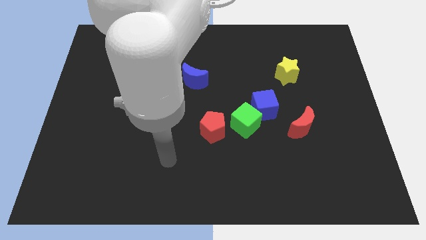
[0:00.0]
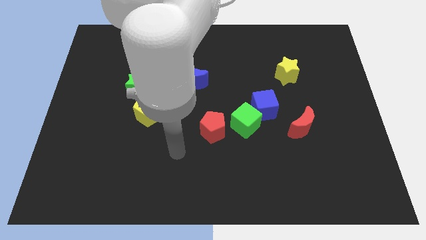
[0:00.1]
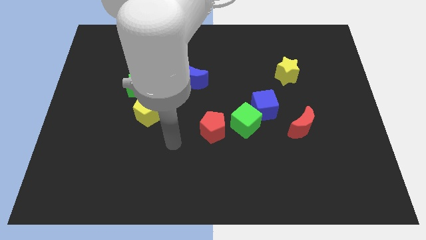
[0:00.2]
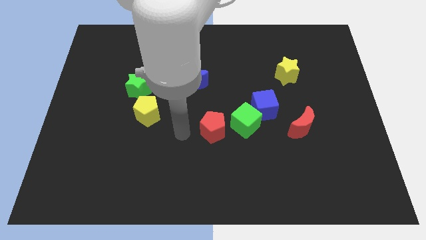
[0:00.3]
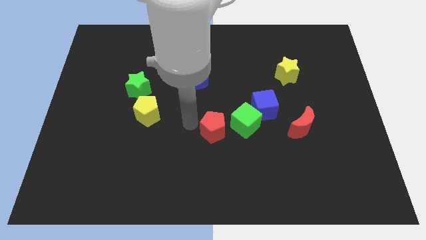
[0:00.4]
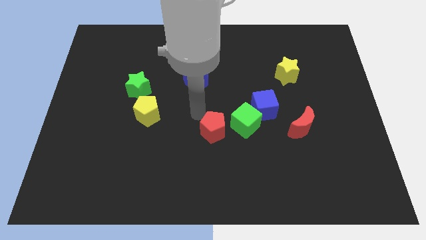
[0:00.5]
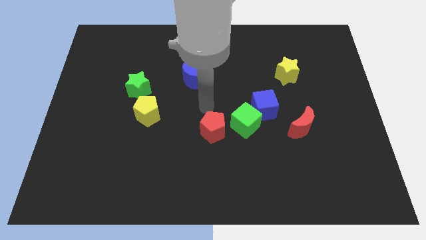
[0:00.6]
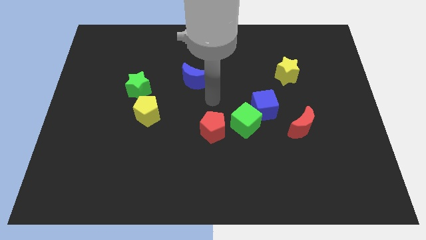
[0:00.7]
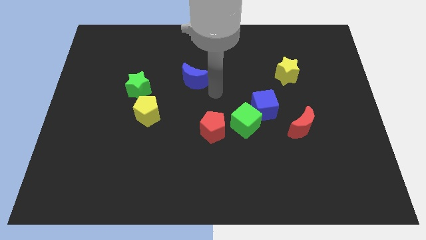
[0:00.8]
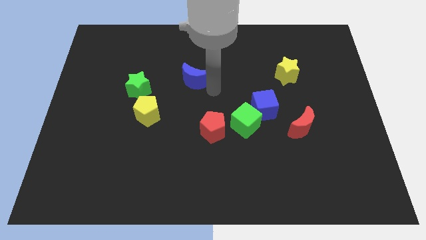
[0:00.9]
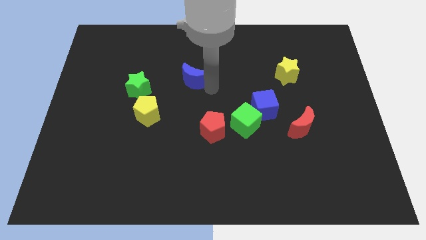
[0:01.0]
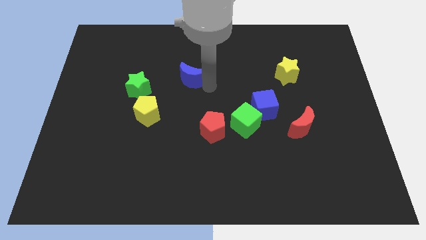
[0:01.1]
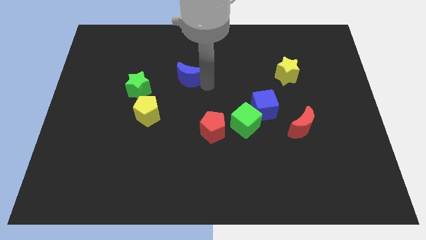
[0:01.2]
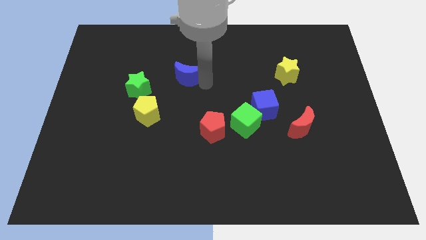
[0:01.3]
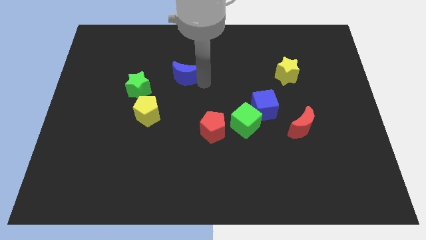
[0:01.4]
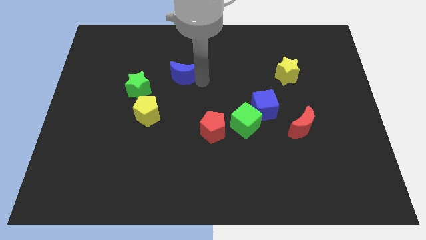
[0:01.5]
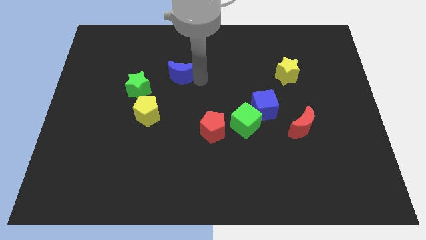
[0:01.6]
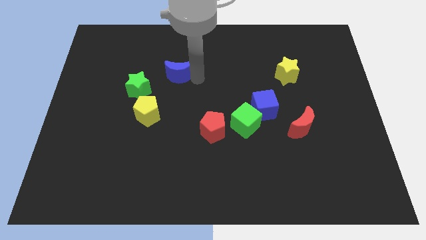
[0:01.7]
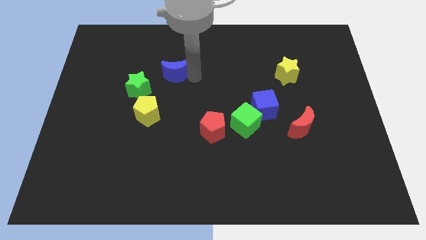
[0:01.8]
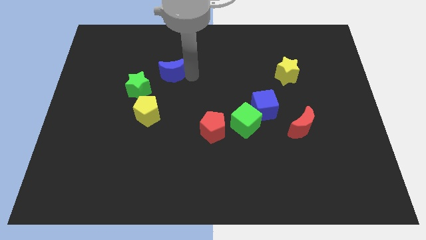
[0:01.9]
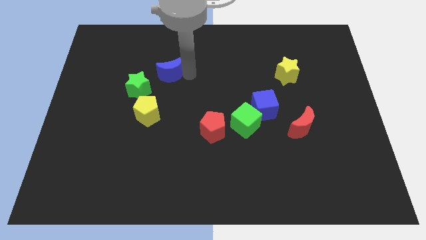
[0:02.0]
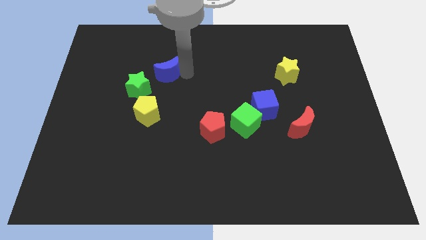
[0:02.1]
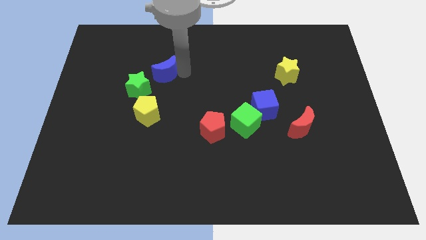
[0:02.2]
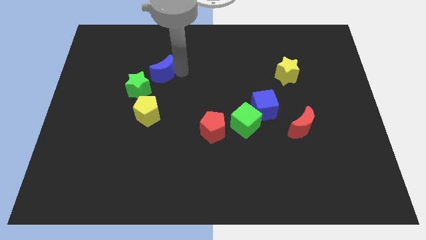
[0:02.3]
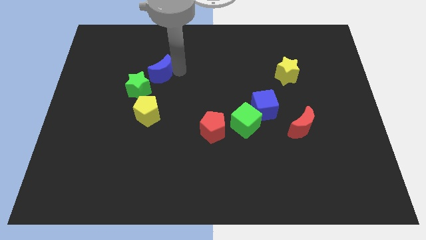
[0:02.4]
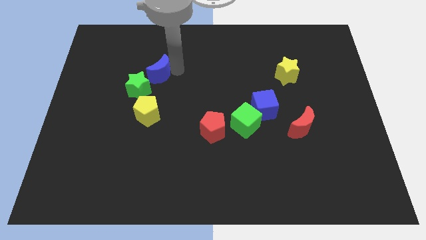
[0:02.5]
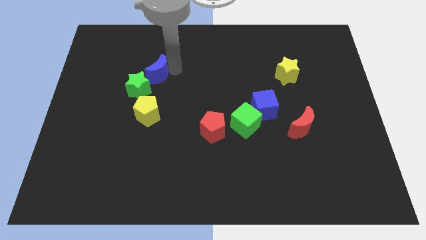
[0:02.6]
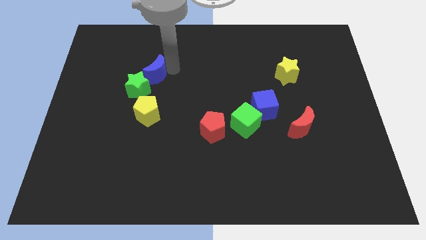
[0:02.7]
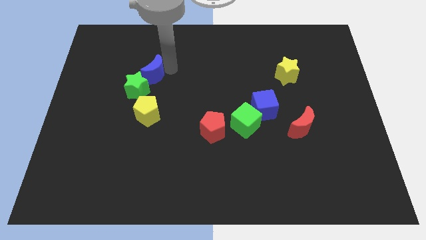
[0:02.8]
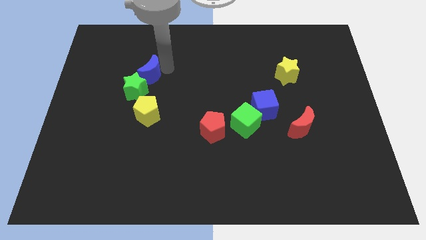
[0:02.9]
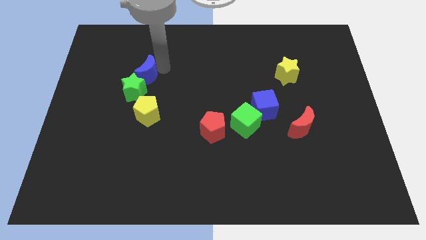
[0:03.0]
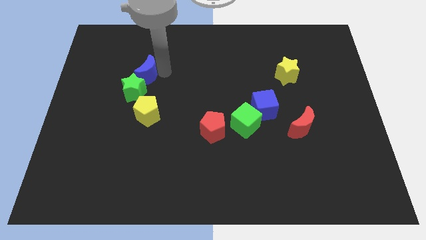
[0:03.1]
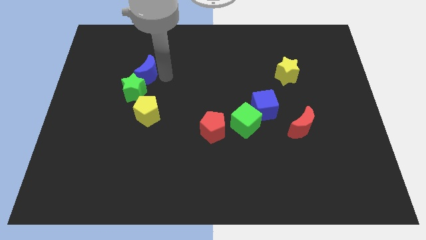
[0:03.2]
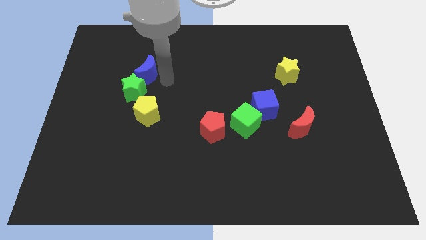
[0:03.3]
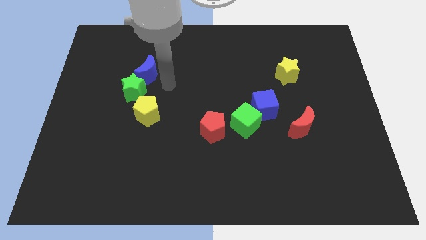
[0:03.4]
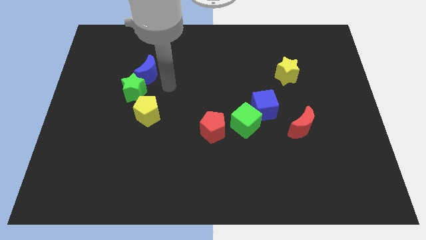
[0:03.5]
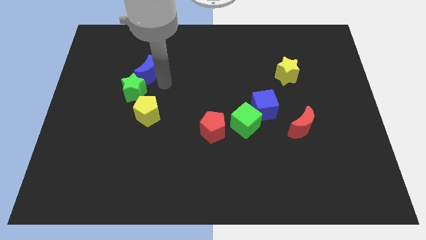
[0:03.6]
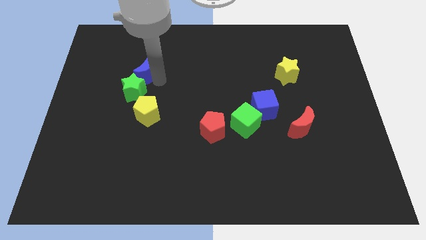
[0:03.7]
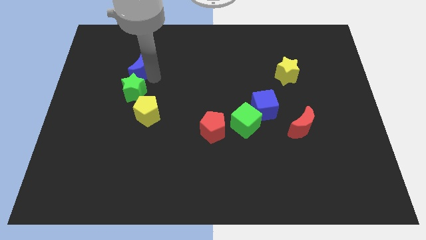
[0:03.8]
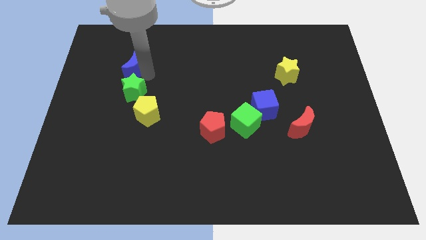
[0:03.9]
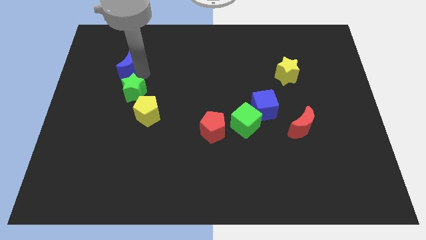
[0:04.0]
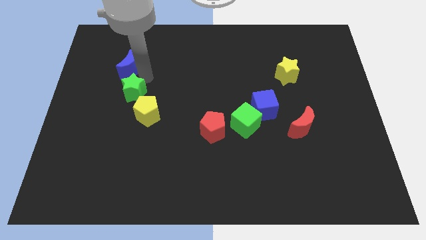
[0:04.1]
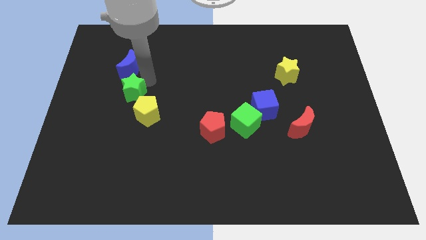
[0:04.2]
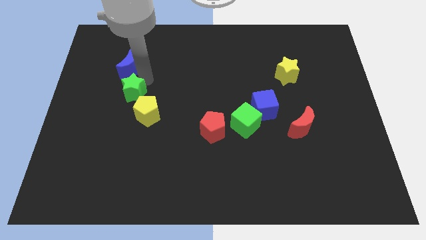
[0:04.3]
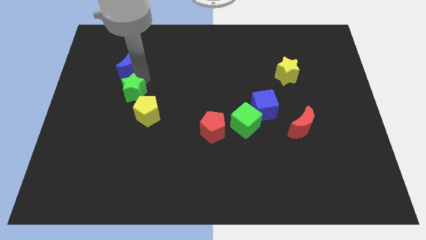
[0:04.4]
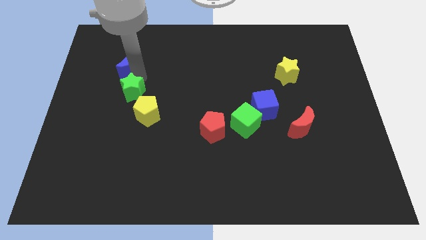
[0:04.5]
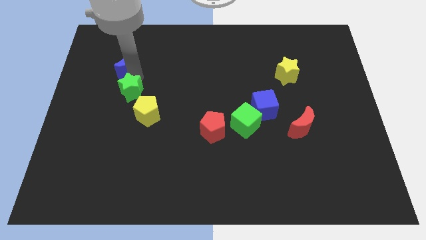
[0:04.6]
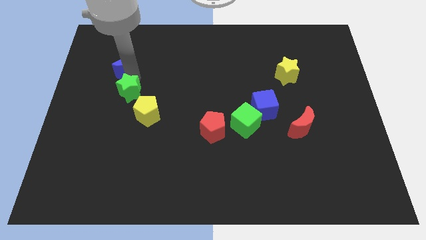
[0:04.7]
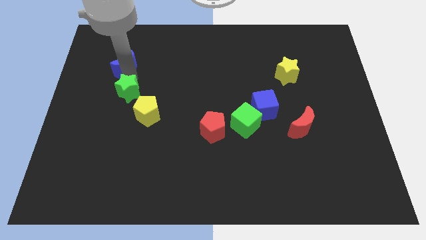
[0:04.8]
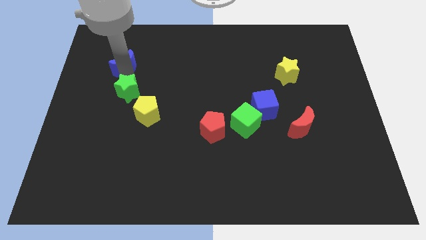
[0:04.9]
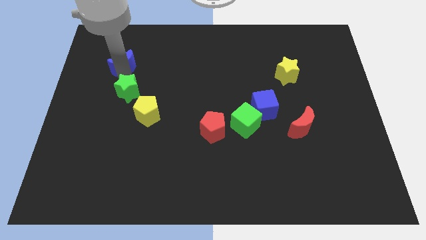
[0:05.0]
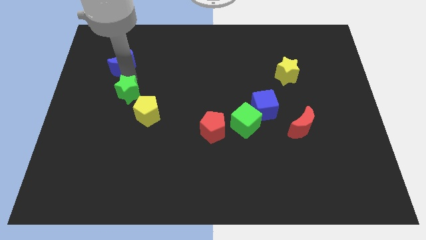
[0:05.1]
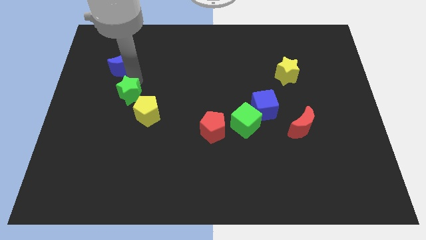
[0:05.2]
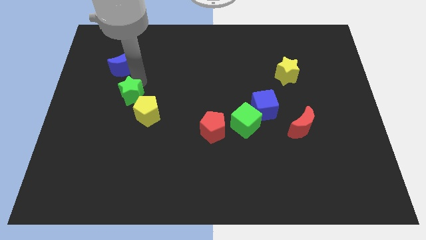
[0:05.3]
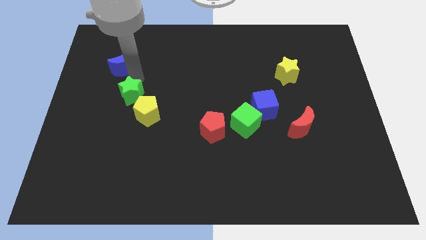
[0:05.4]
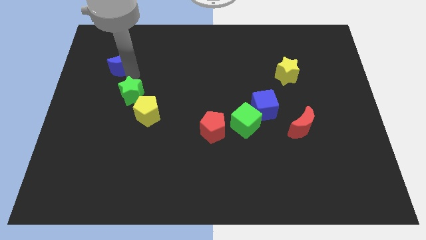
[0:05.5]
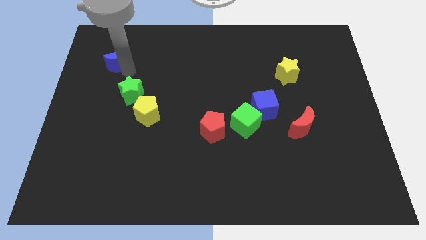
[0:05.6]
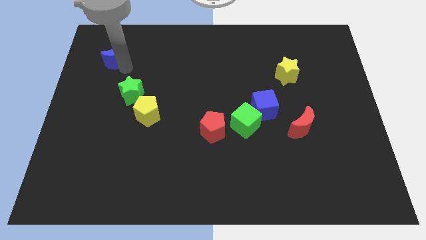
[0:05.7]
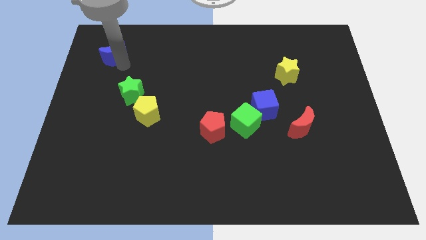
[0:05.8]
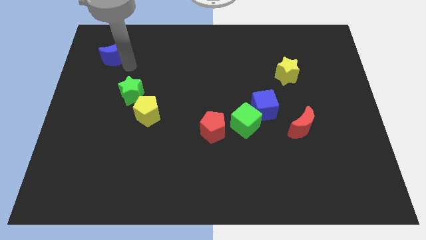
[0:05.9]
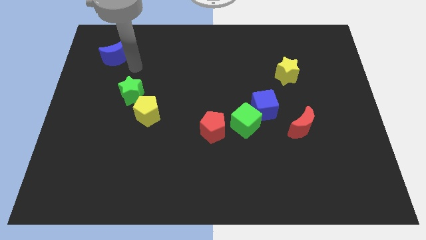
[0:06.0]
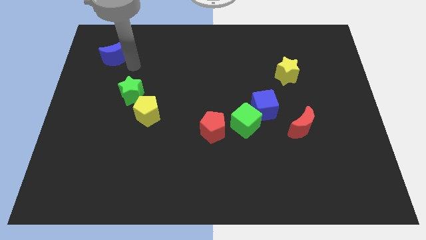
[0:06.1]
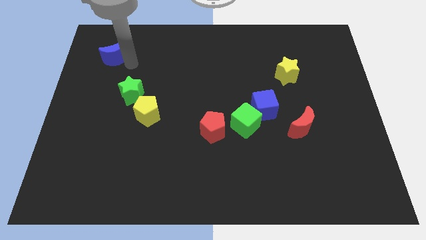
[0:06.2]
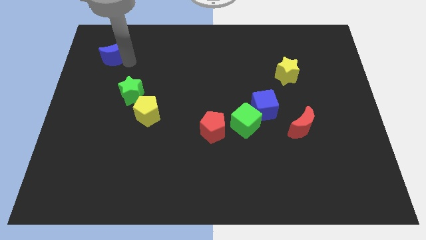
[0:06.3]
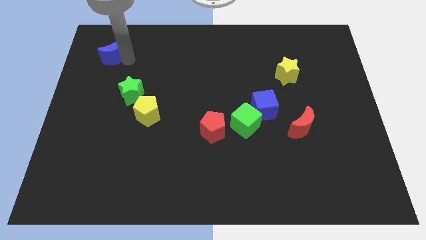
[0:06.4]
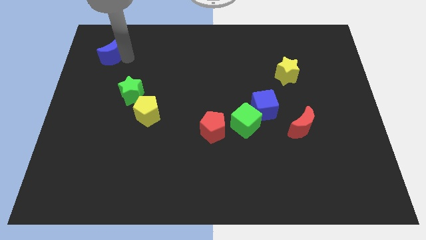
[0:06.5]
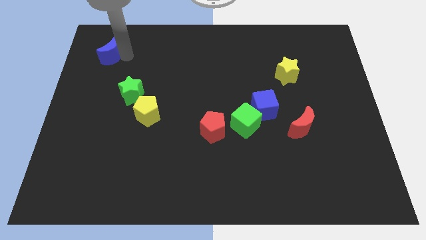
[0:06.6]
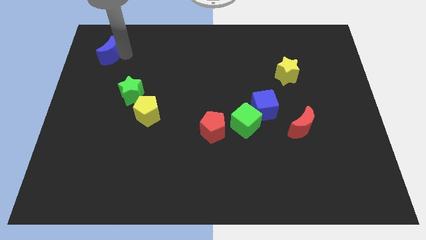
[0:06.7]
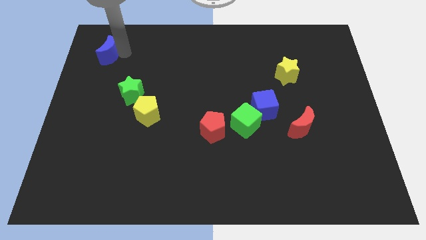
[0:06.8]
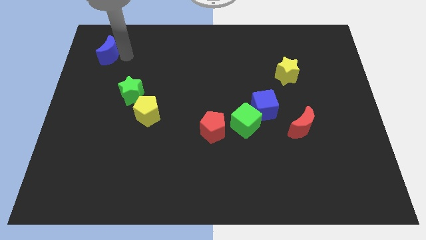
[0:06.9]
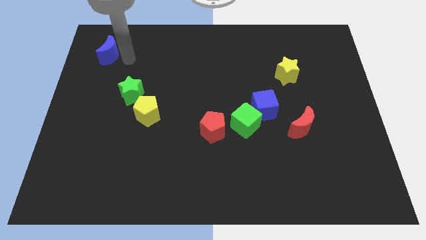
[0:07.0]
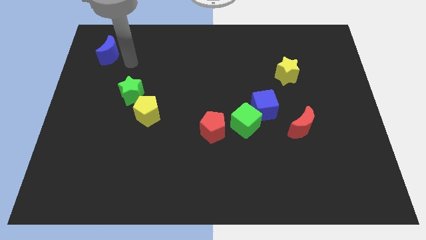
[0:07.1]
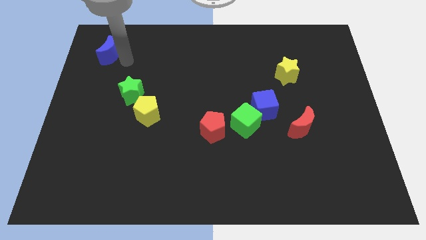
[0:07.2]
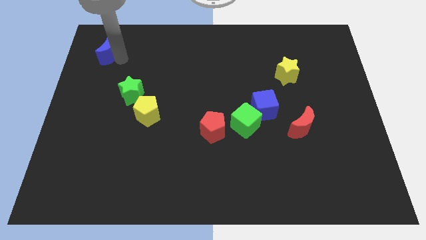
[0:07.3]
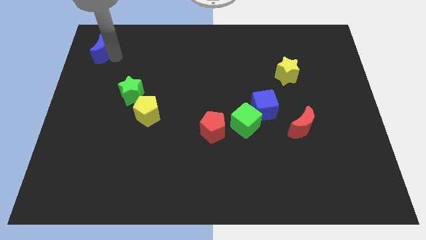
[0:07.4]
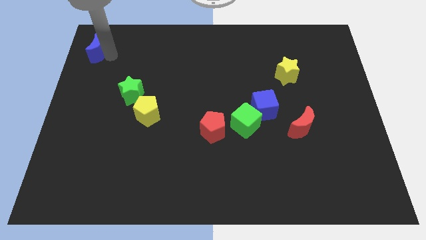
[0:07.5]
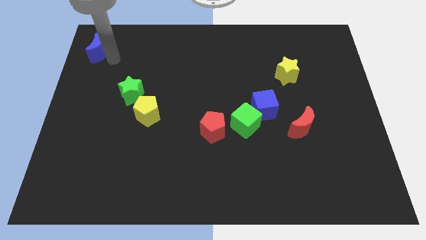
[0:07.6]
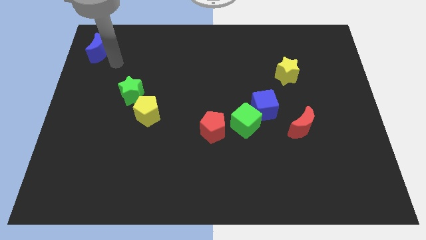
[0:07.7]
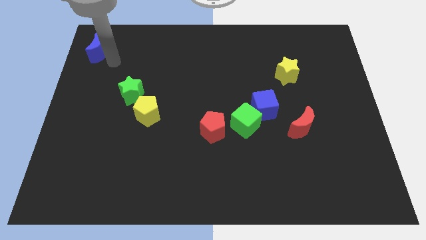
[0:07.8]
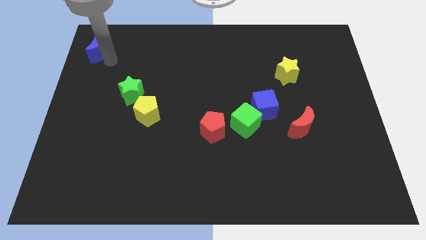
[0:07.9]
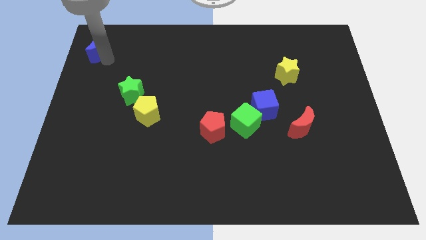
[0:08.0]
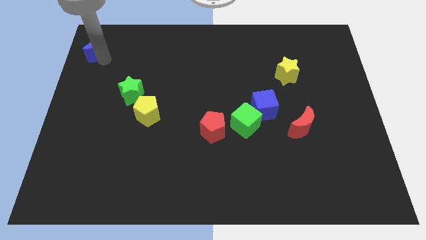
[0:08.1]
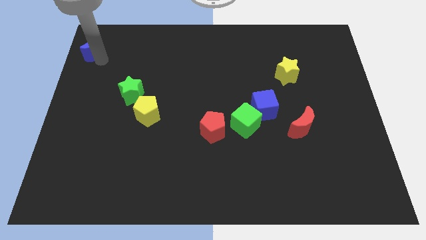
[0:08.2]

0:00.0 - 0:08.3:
push the blue moon to the top left
